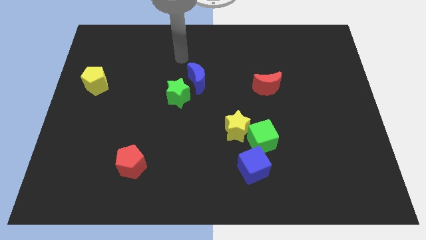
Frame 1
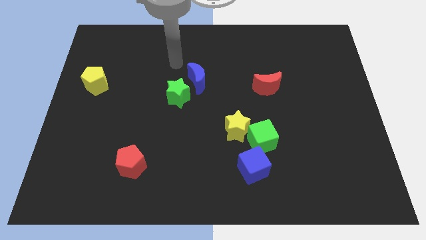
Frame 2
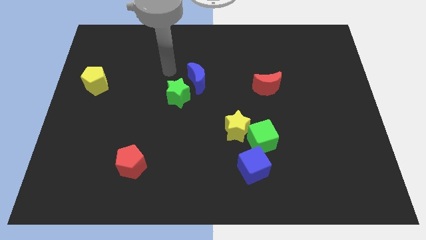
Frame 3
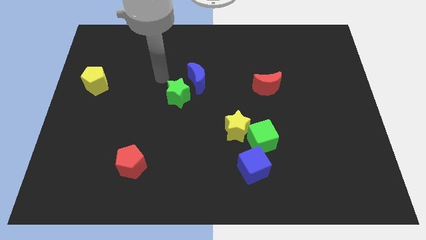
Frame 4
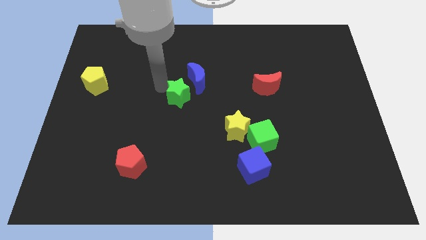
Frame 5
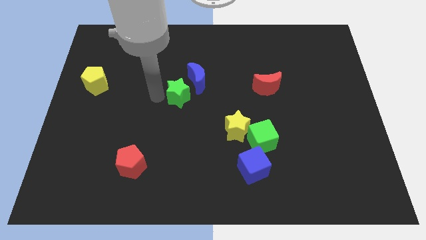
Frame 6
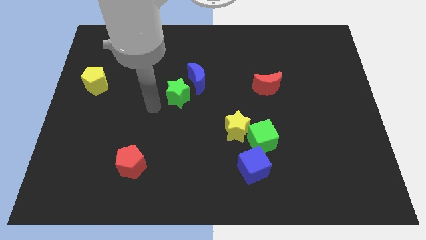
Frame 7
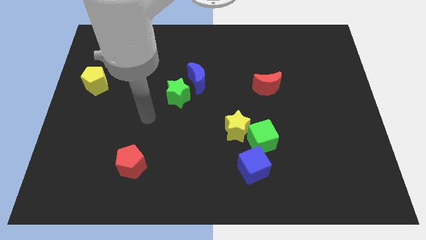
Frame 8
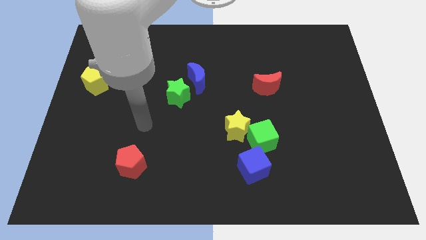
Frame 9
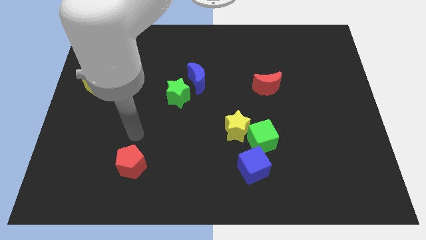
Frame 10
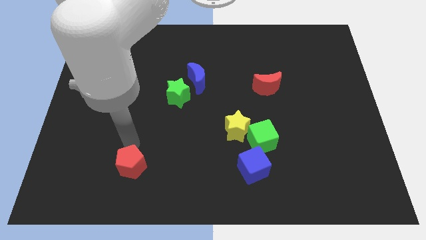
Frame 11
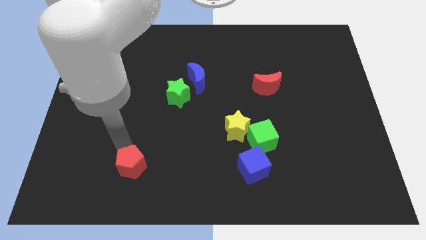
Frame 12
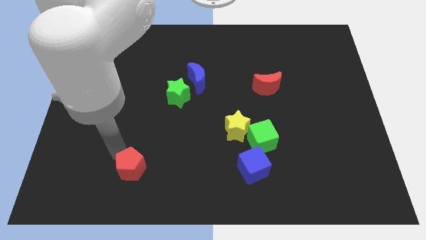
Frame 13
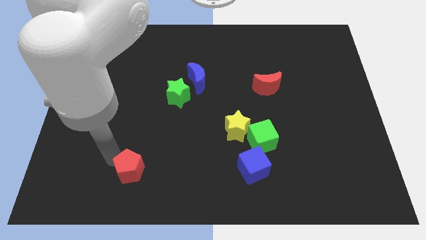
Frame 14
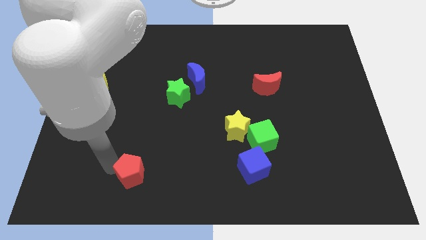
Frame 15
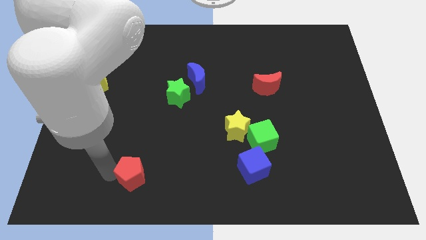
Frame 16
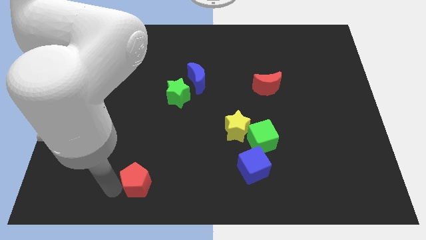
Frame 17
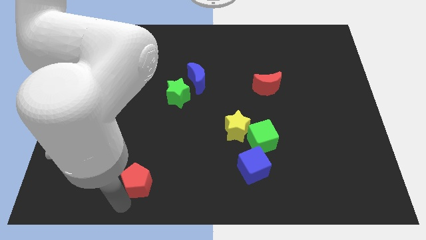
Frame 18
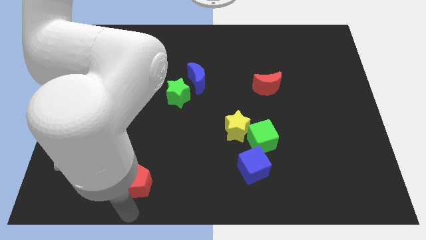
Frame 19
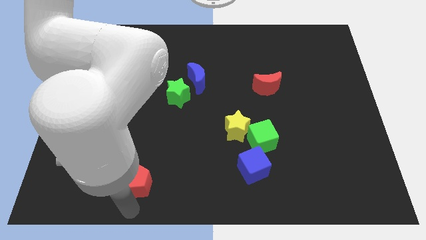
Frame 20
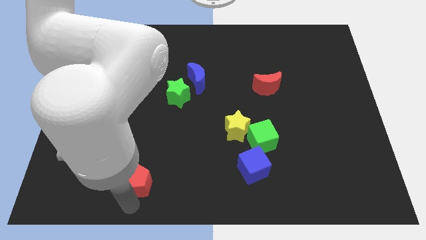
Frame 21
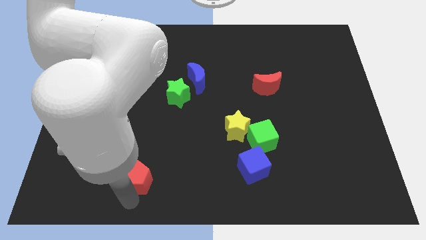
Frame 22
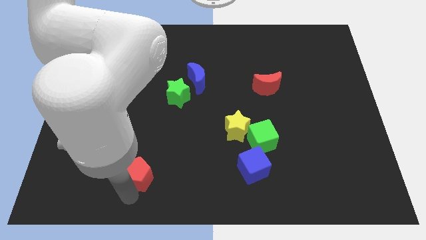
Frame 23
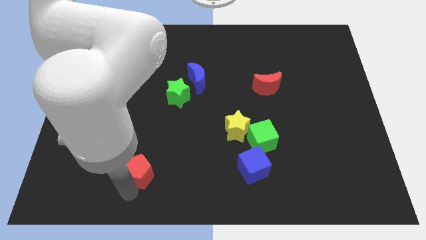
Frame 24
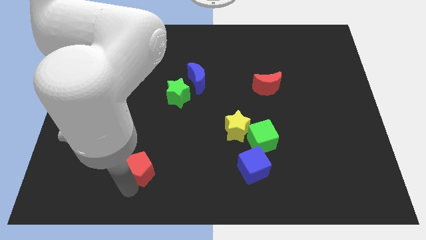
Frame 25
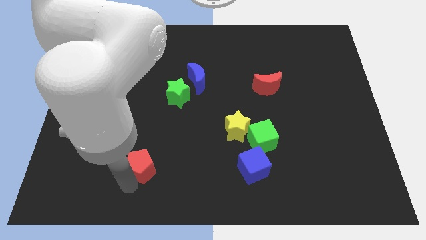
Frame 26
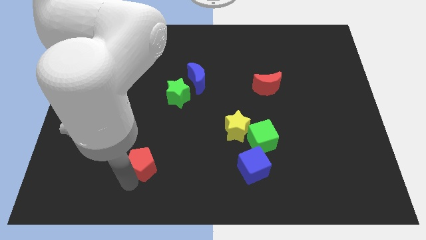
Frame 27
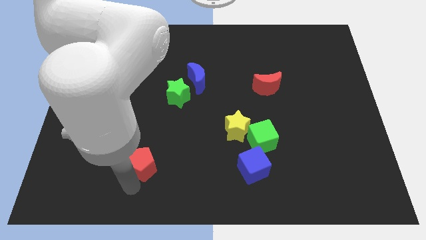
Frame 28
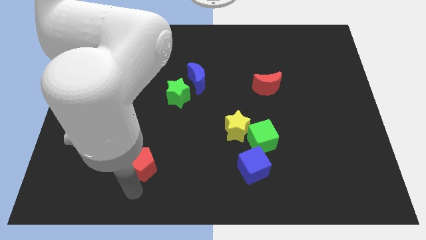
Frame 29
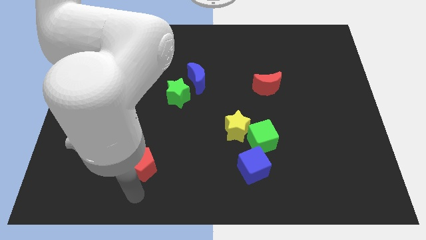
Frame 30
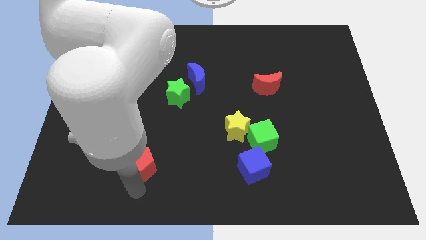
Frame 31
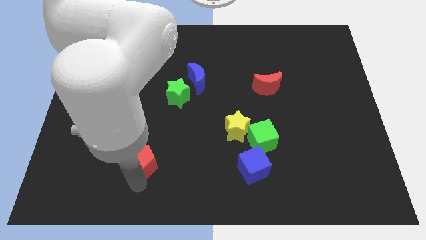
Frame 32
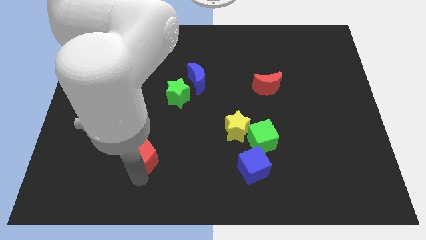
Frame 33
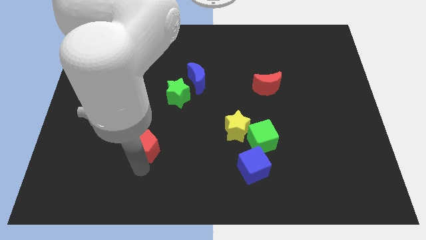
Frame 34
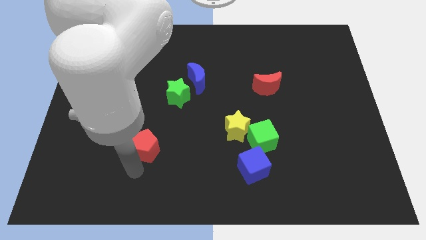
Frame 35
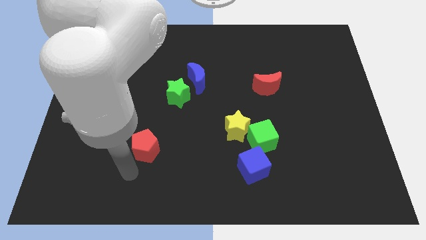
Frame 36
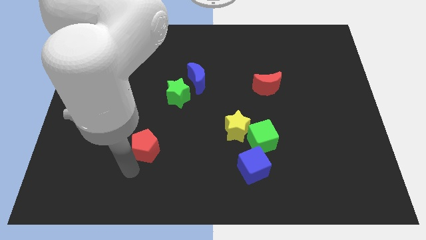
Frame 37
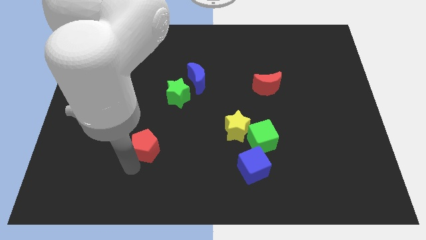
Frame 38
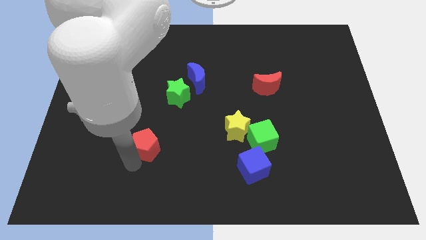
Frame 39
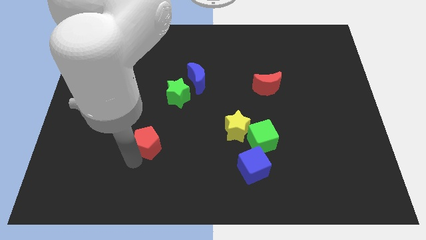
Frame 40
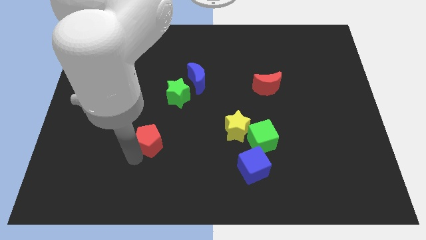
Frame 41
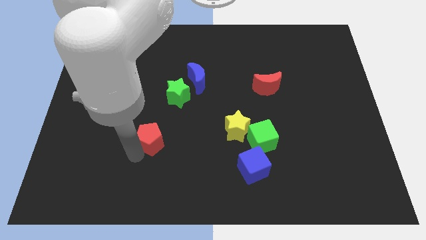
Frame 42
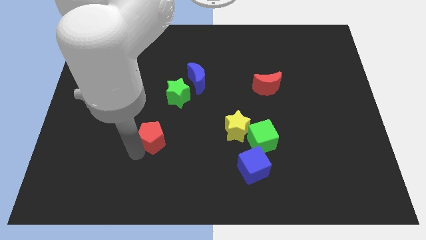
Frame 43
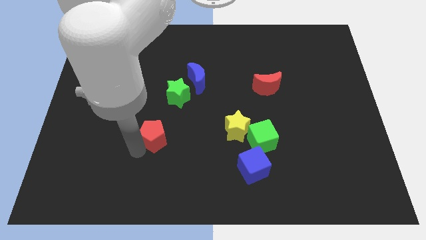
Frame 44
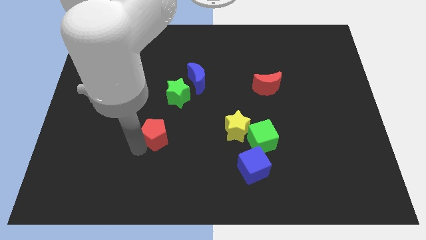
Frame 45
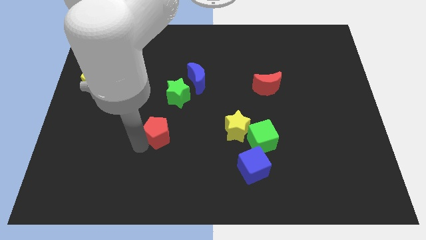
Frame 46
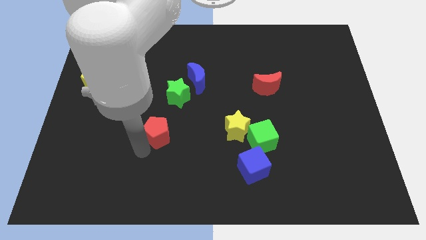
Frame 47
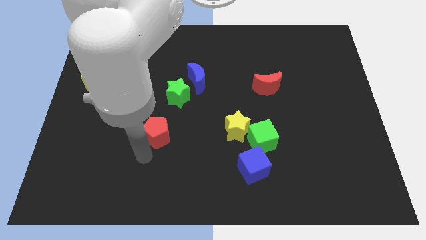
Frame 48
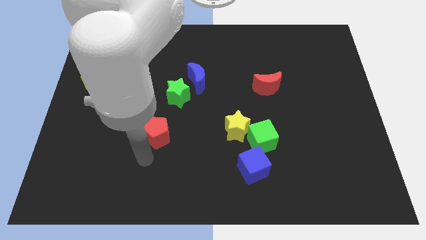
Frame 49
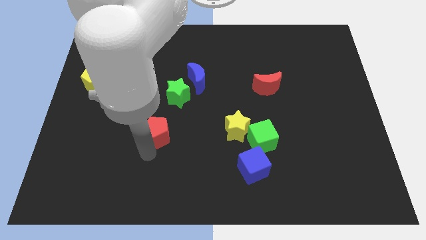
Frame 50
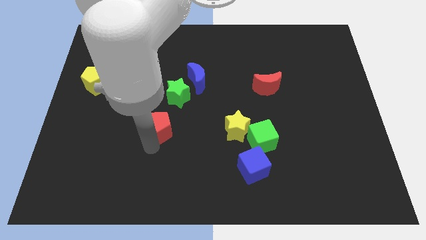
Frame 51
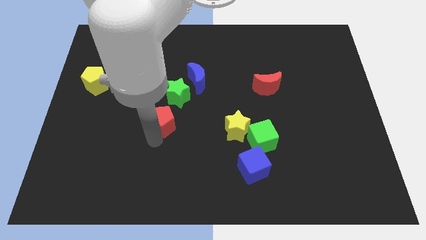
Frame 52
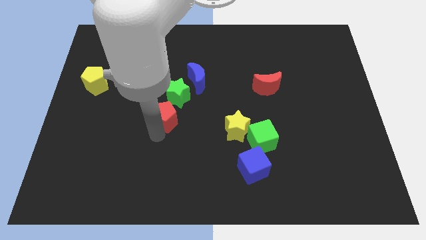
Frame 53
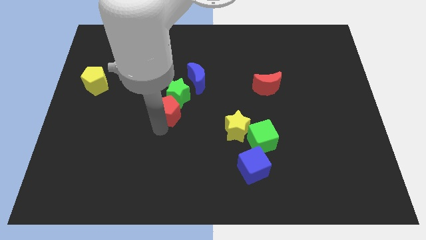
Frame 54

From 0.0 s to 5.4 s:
push the red pentagon next to the green star

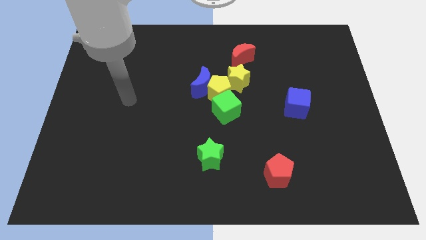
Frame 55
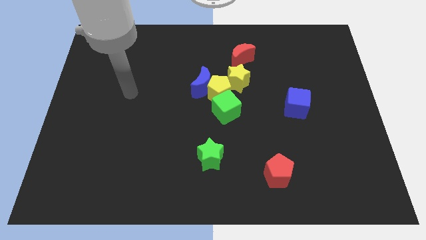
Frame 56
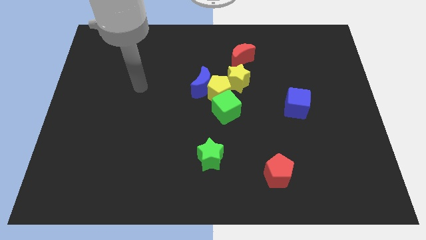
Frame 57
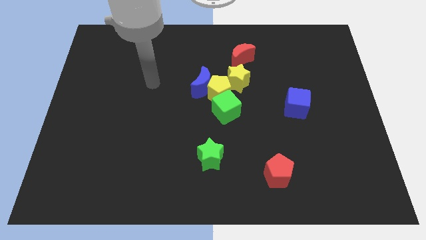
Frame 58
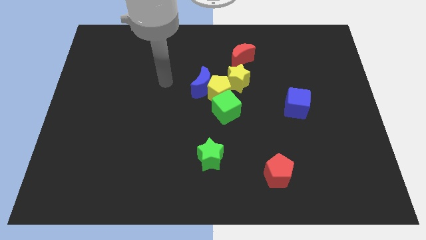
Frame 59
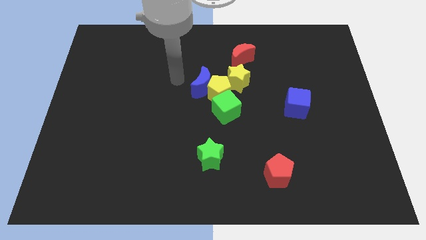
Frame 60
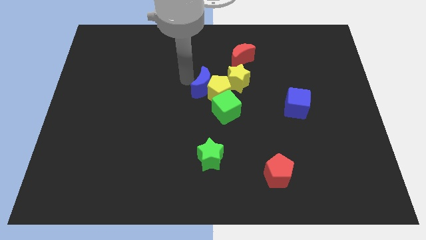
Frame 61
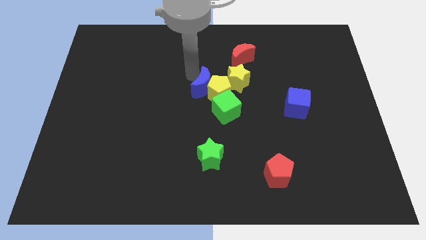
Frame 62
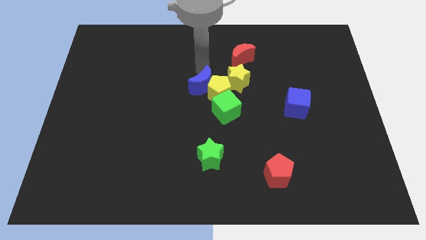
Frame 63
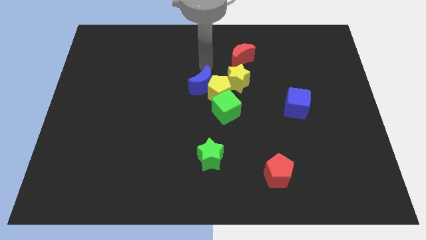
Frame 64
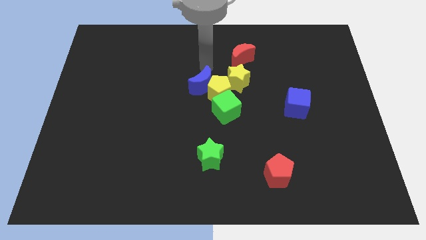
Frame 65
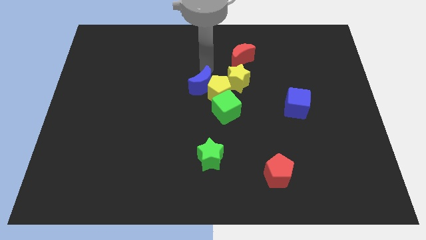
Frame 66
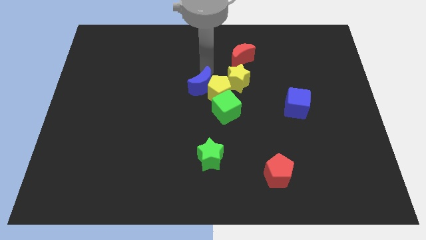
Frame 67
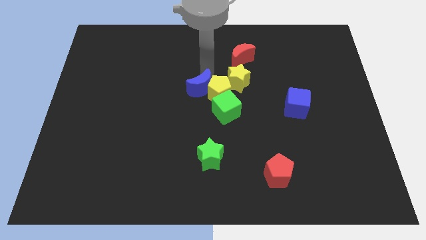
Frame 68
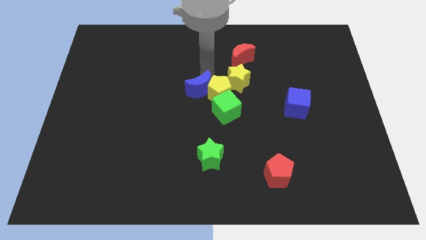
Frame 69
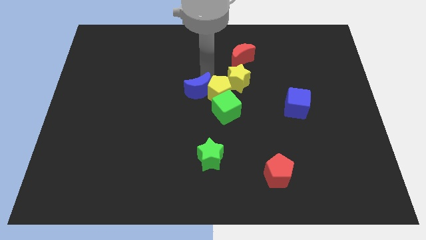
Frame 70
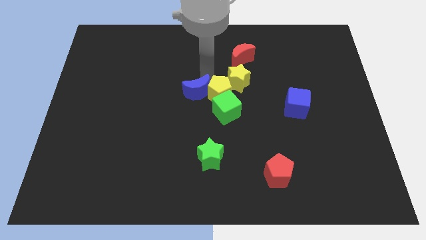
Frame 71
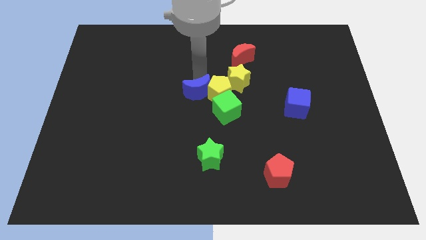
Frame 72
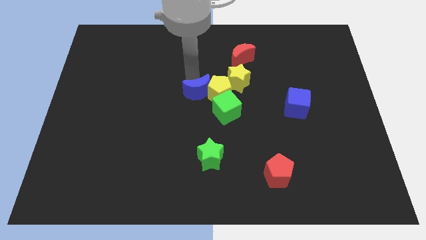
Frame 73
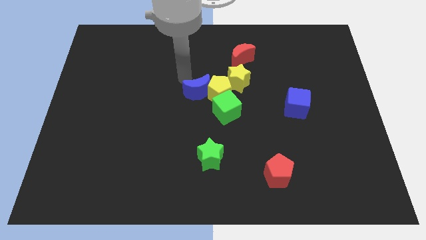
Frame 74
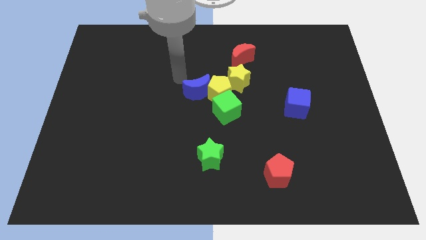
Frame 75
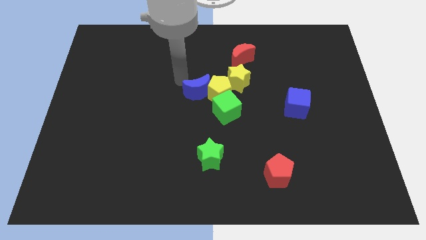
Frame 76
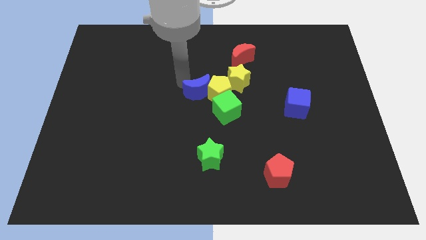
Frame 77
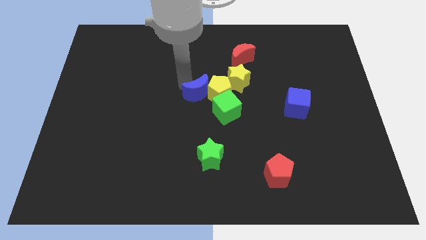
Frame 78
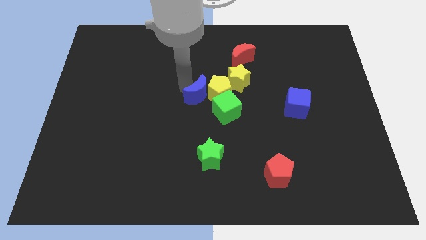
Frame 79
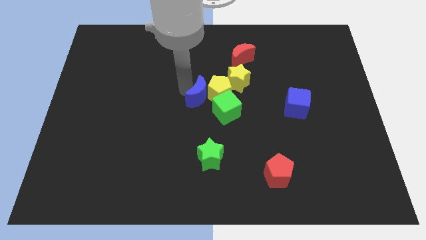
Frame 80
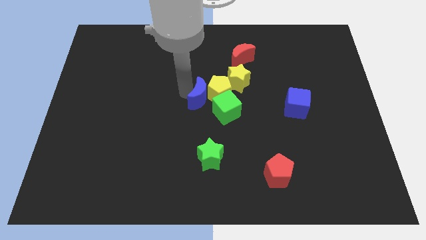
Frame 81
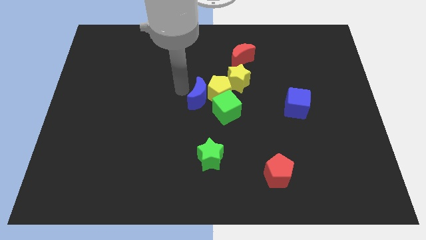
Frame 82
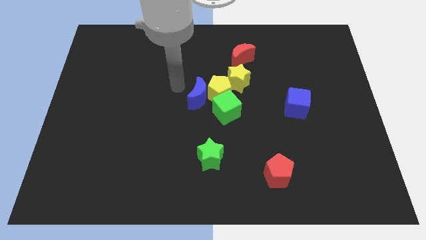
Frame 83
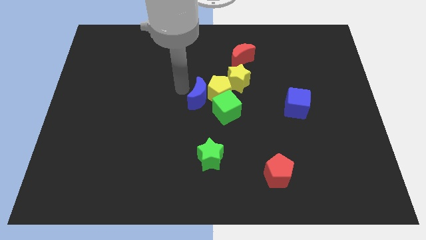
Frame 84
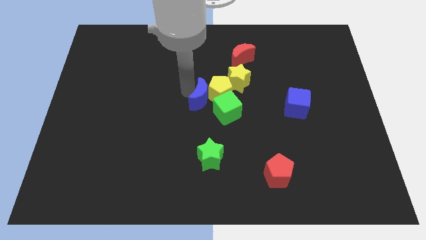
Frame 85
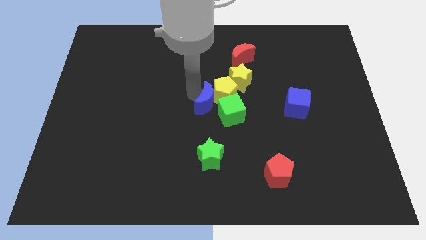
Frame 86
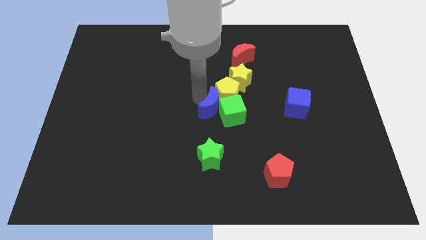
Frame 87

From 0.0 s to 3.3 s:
slide the blue moon towards the green cube
